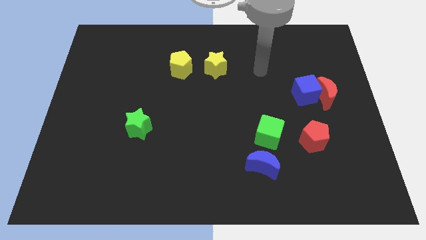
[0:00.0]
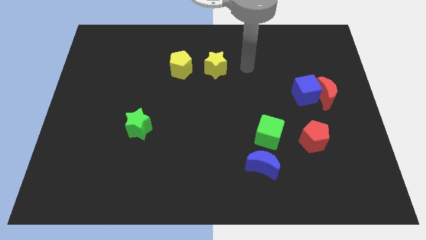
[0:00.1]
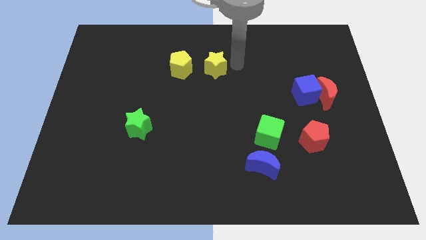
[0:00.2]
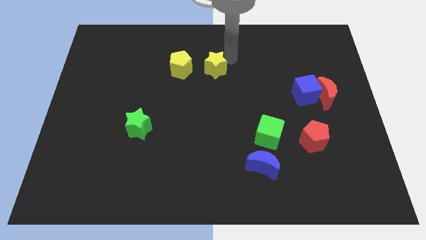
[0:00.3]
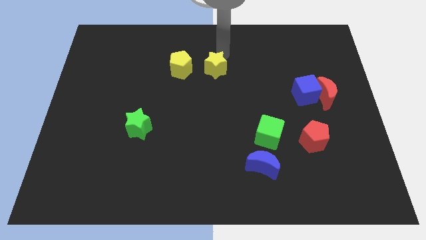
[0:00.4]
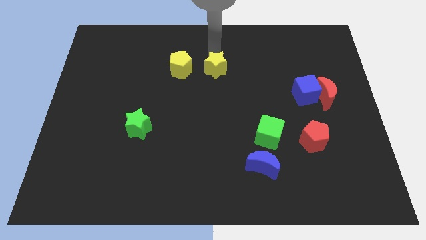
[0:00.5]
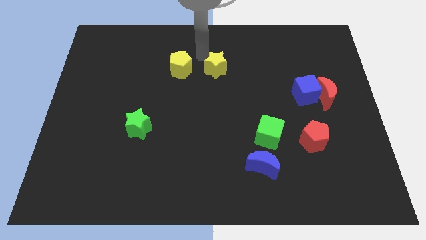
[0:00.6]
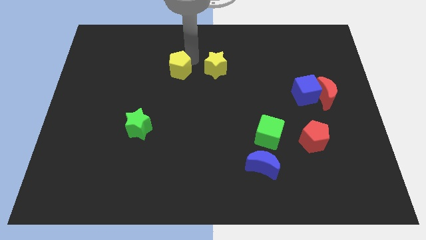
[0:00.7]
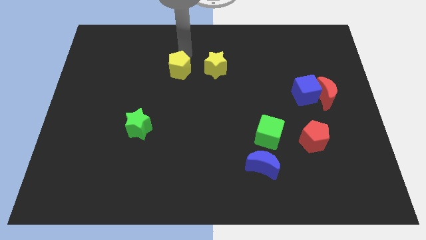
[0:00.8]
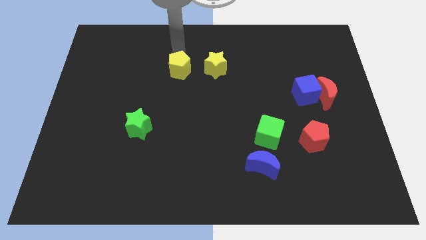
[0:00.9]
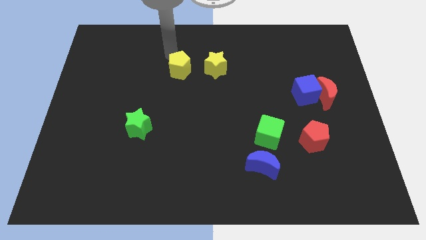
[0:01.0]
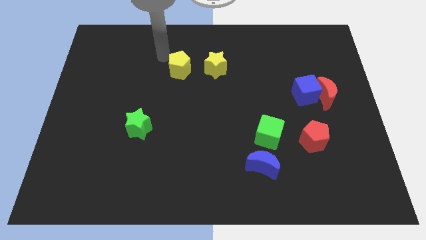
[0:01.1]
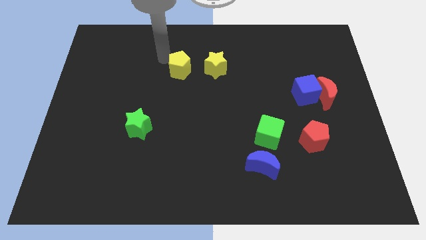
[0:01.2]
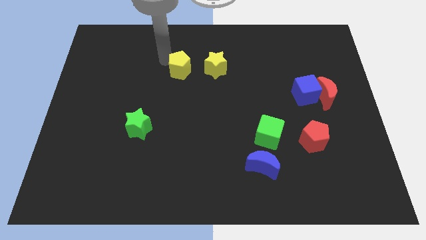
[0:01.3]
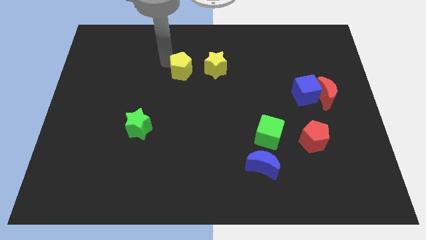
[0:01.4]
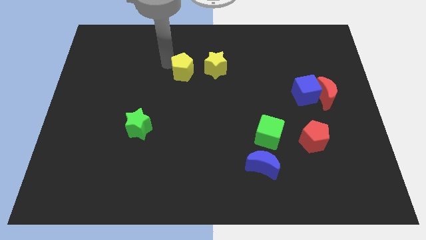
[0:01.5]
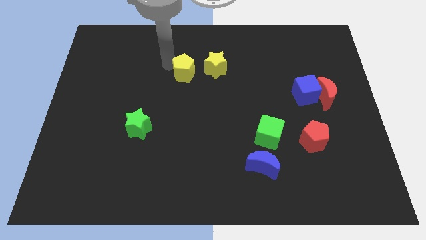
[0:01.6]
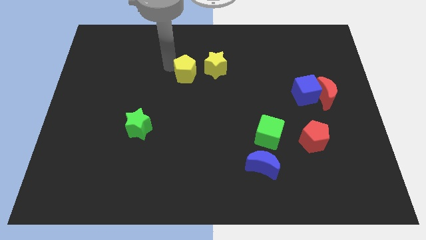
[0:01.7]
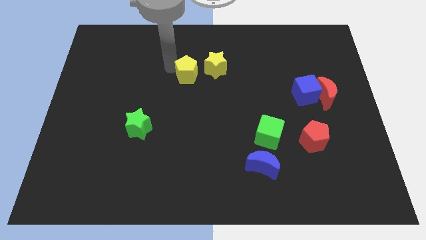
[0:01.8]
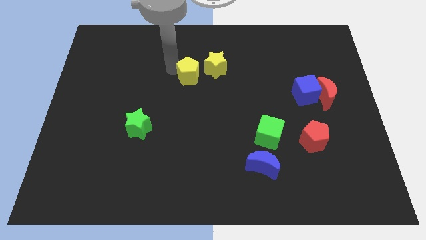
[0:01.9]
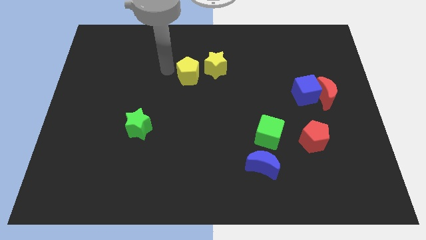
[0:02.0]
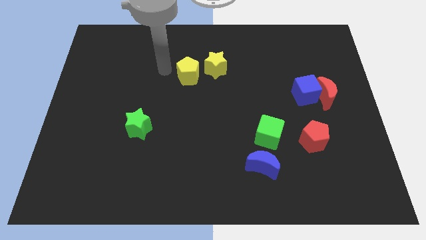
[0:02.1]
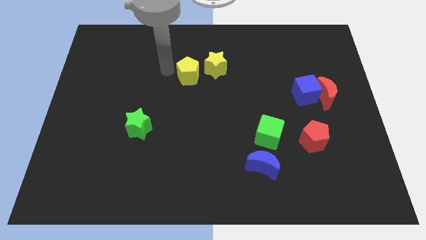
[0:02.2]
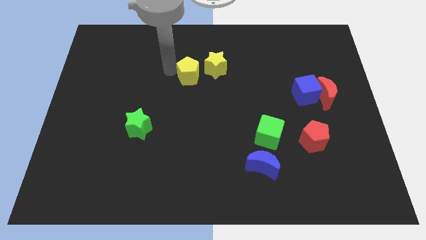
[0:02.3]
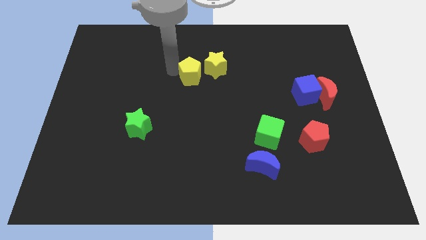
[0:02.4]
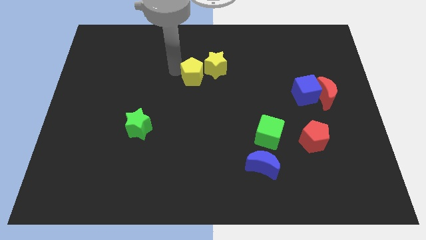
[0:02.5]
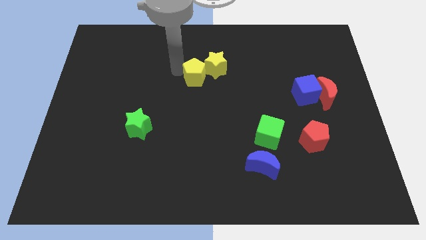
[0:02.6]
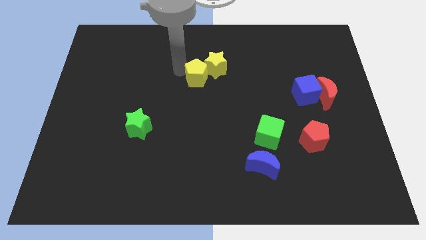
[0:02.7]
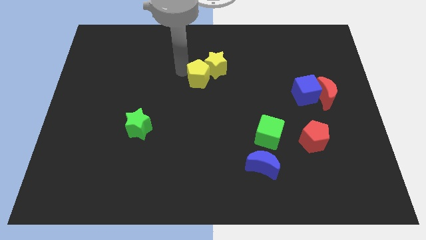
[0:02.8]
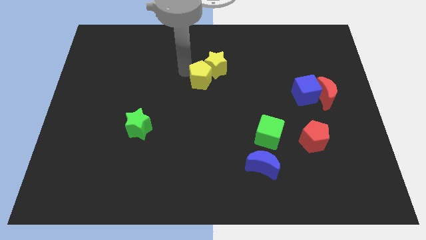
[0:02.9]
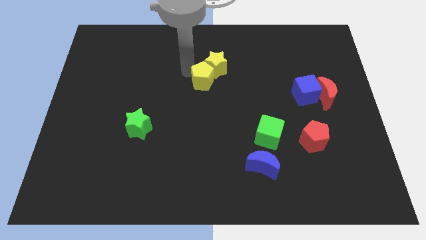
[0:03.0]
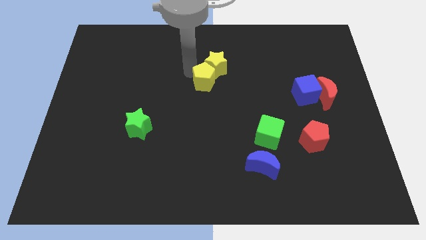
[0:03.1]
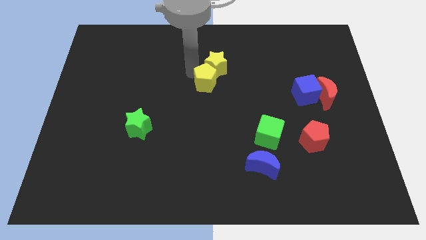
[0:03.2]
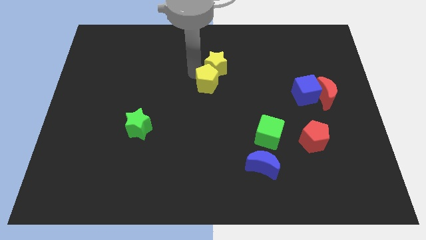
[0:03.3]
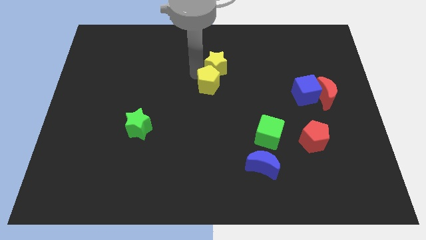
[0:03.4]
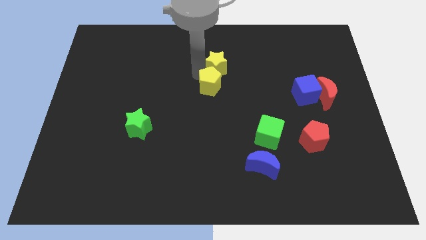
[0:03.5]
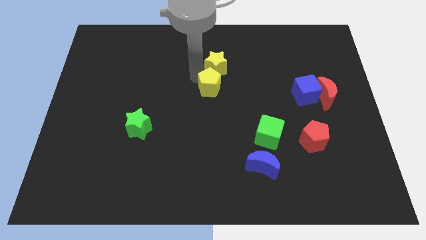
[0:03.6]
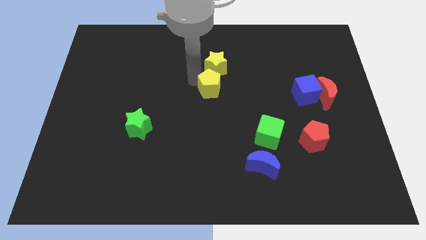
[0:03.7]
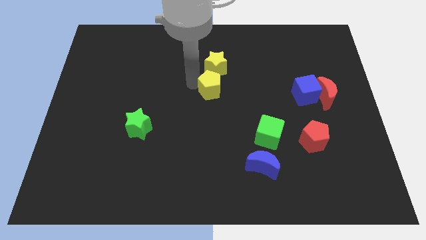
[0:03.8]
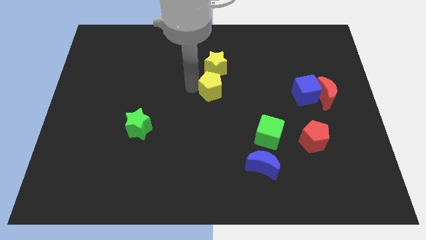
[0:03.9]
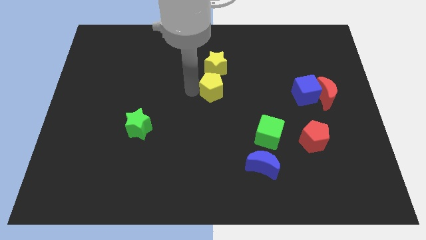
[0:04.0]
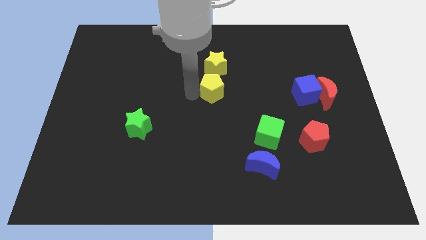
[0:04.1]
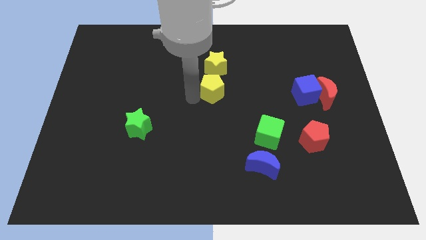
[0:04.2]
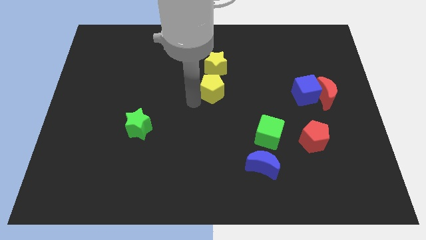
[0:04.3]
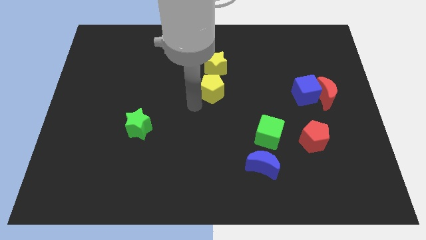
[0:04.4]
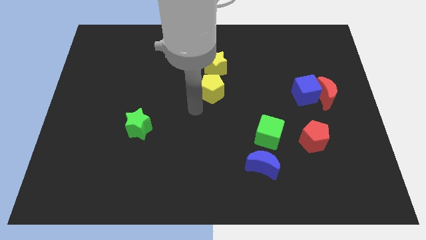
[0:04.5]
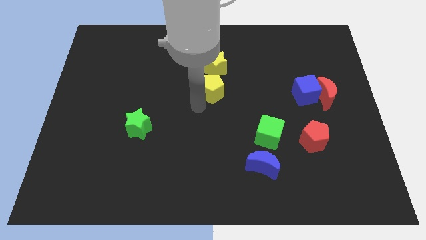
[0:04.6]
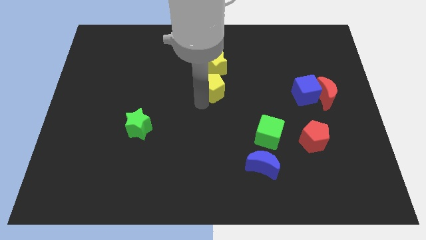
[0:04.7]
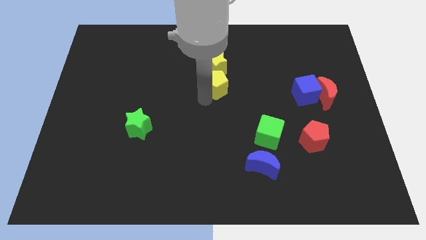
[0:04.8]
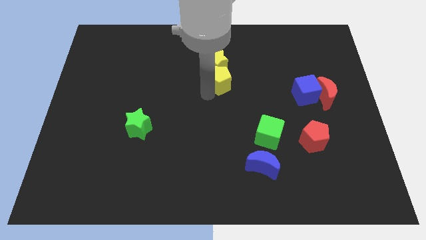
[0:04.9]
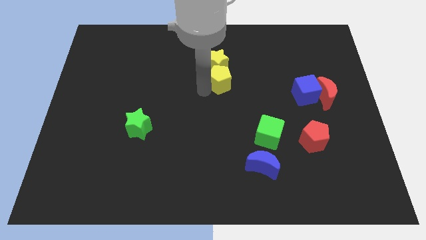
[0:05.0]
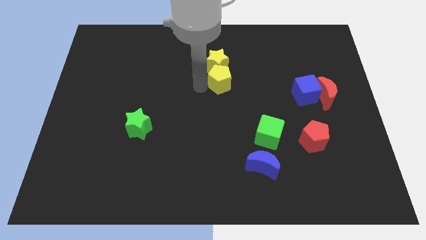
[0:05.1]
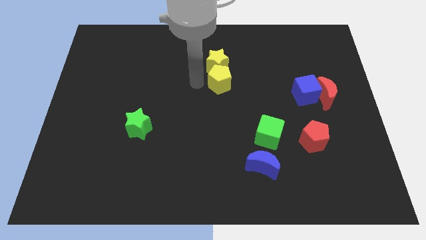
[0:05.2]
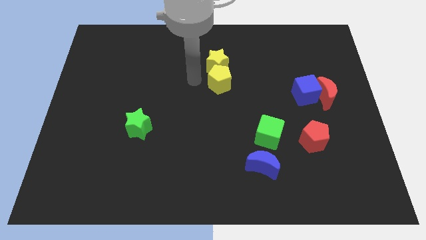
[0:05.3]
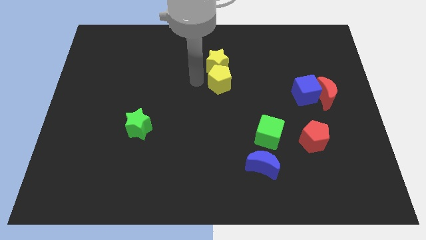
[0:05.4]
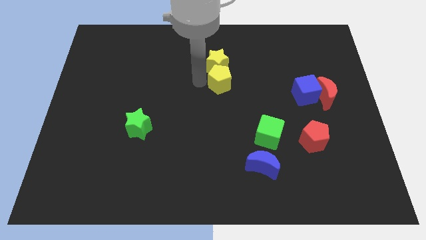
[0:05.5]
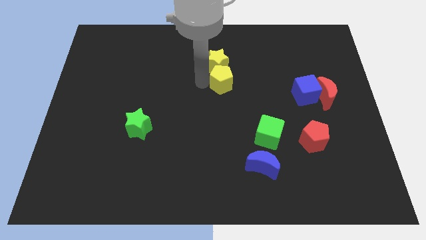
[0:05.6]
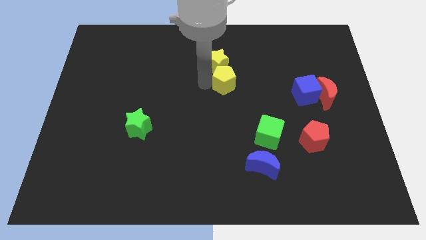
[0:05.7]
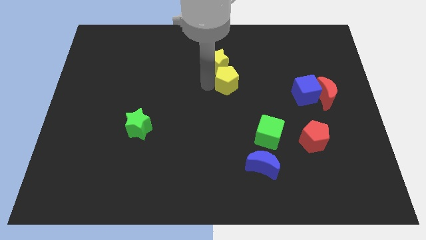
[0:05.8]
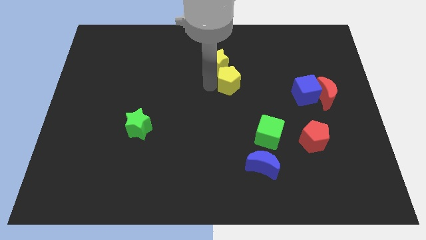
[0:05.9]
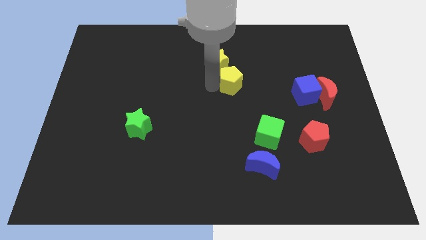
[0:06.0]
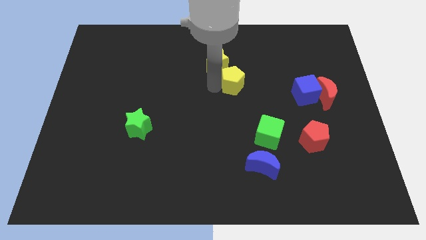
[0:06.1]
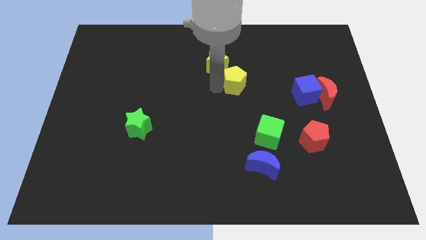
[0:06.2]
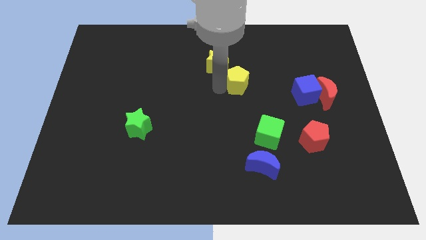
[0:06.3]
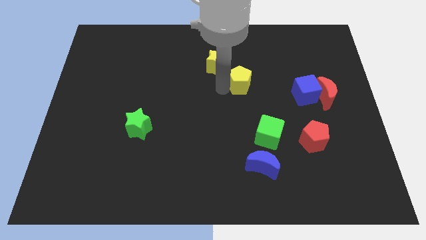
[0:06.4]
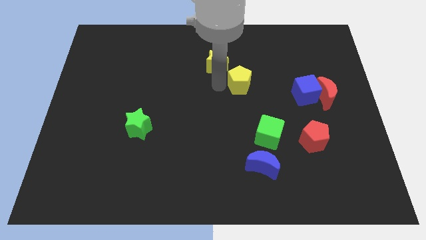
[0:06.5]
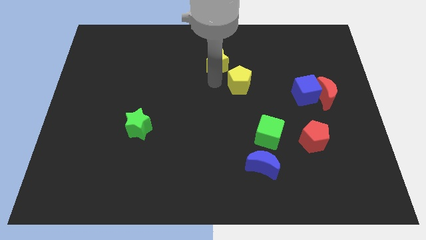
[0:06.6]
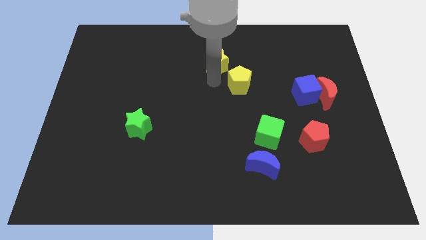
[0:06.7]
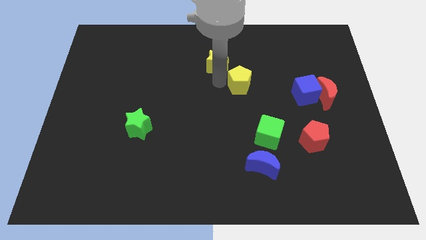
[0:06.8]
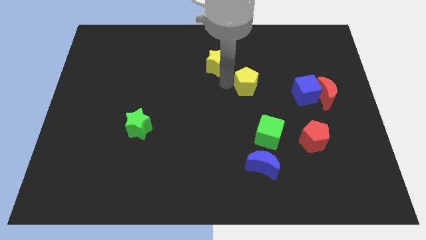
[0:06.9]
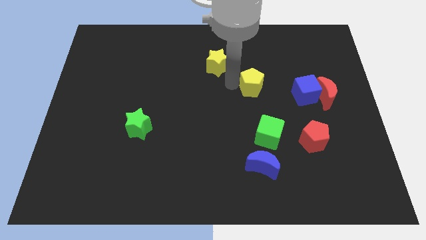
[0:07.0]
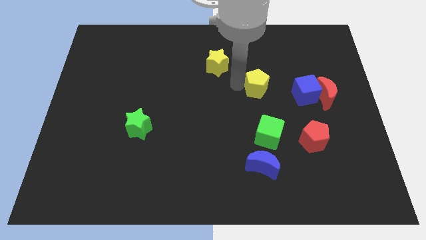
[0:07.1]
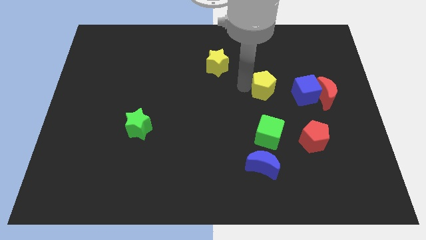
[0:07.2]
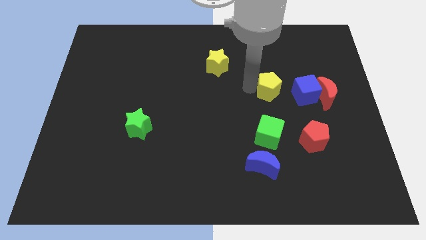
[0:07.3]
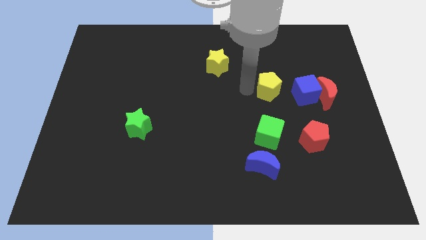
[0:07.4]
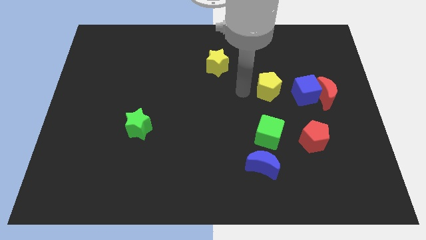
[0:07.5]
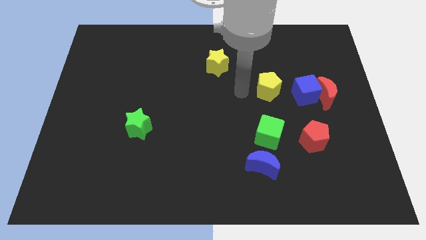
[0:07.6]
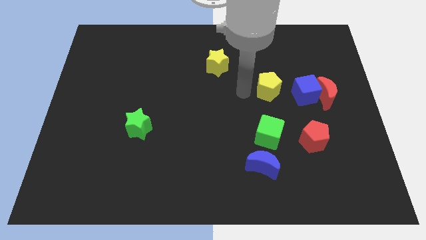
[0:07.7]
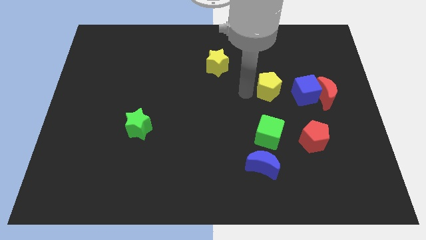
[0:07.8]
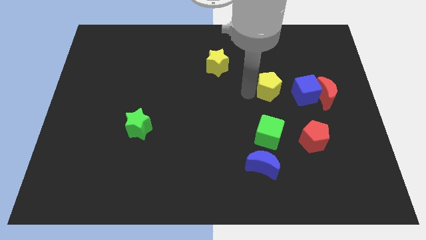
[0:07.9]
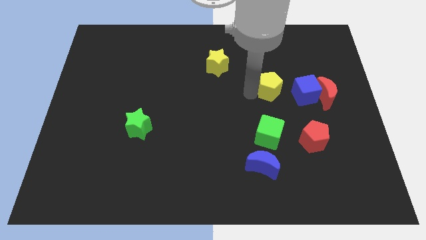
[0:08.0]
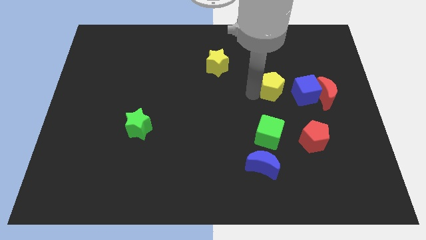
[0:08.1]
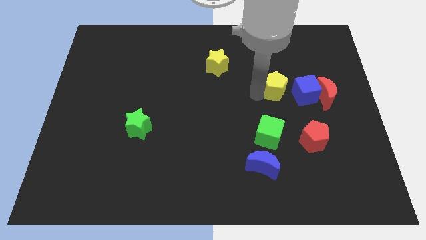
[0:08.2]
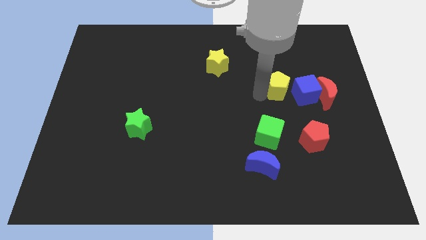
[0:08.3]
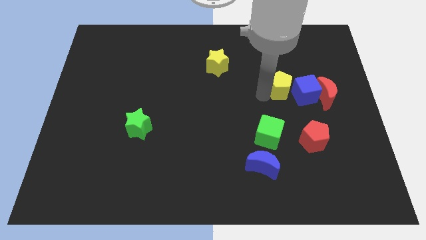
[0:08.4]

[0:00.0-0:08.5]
move the yellow pentagon next to the blue cube
